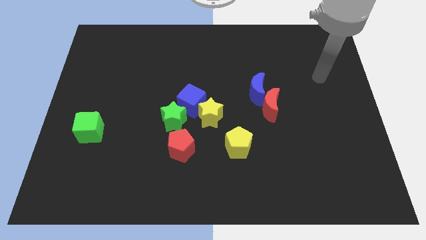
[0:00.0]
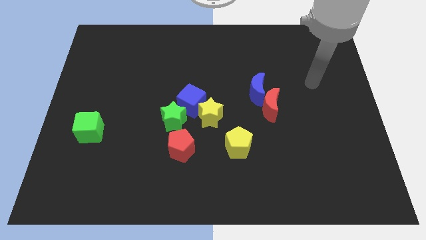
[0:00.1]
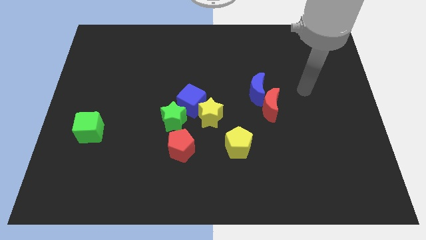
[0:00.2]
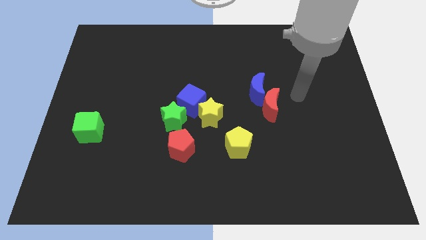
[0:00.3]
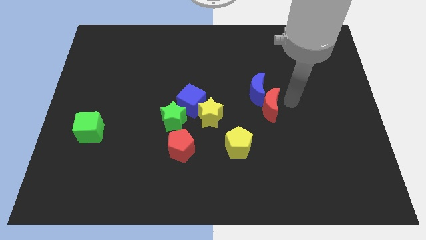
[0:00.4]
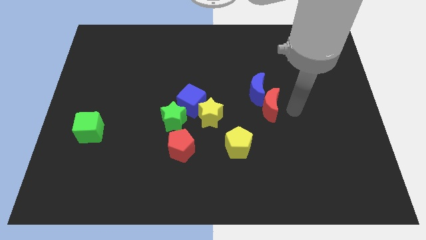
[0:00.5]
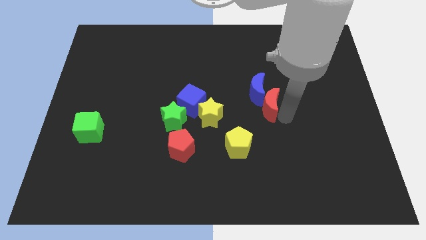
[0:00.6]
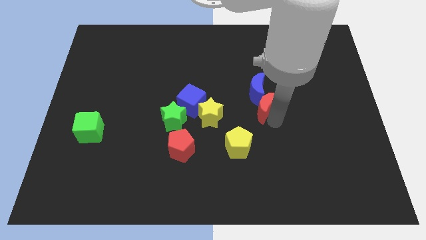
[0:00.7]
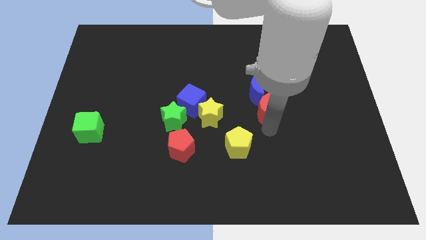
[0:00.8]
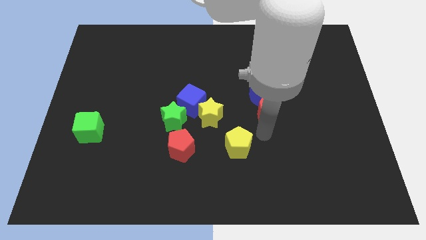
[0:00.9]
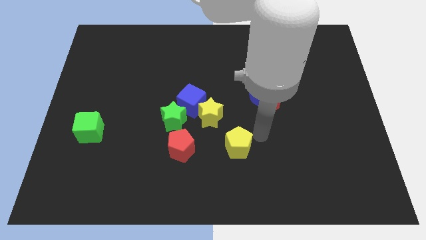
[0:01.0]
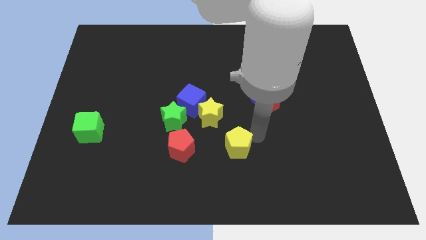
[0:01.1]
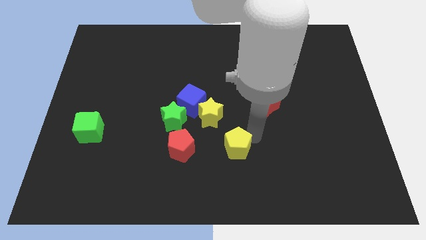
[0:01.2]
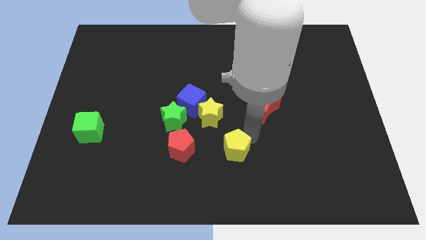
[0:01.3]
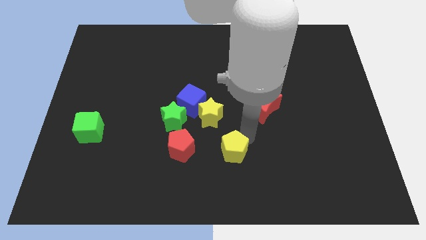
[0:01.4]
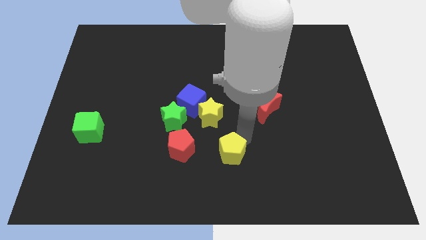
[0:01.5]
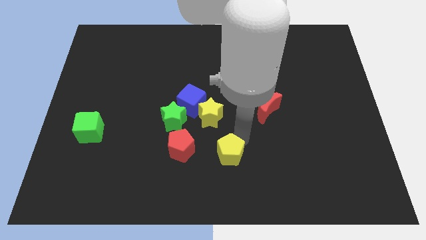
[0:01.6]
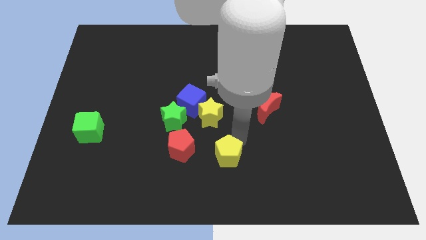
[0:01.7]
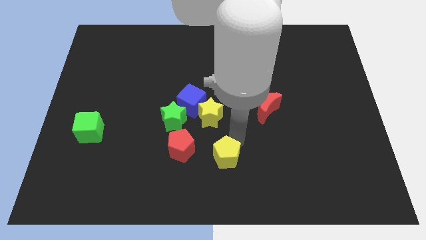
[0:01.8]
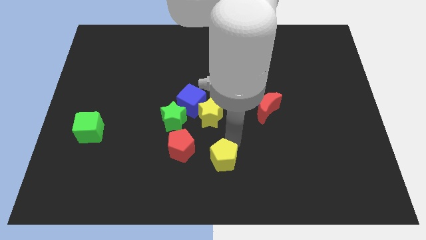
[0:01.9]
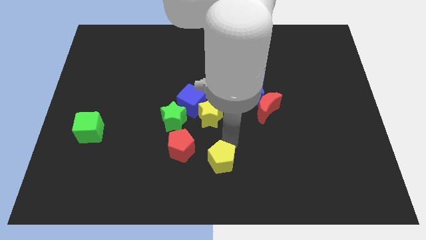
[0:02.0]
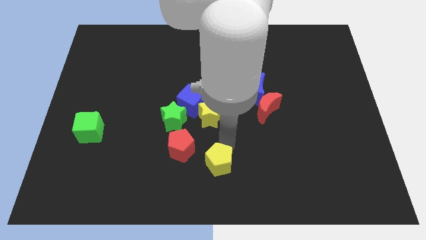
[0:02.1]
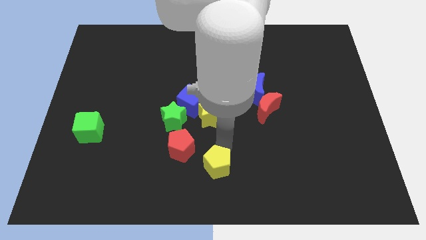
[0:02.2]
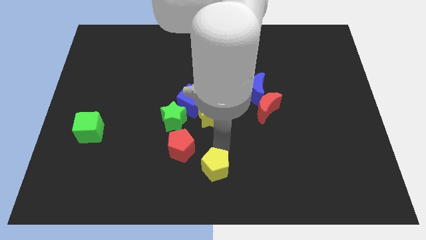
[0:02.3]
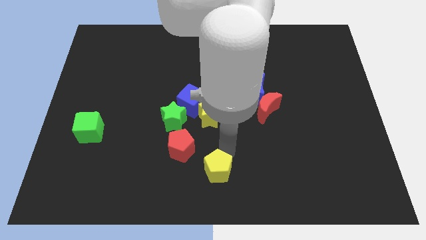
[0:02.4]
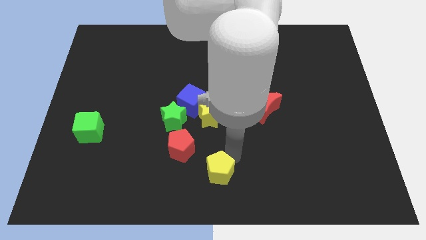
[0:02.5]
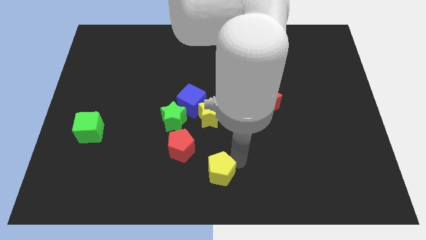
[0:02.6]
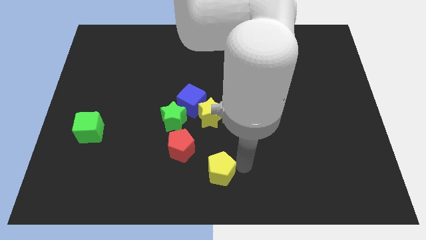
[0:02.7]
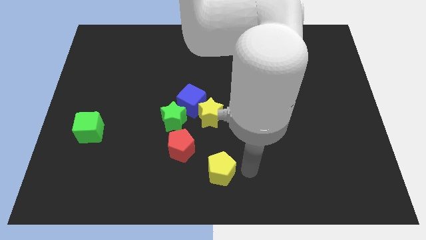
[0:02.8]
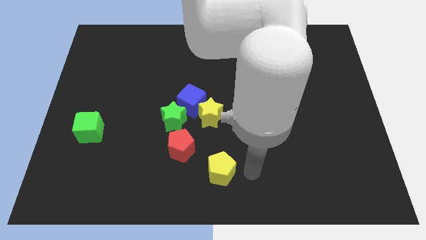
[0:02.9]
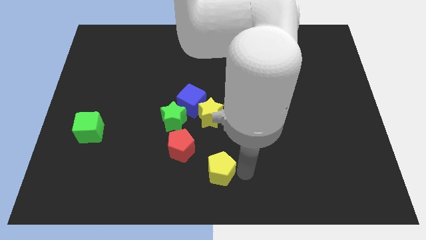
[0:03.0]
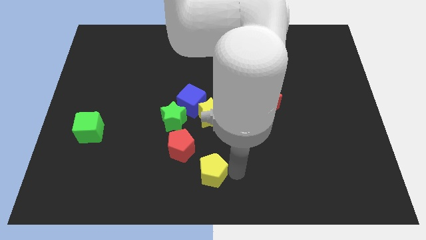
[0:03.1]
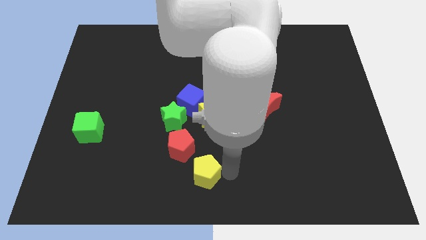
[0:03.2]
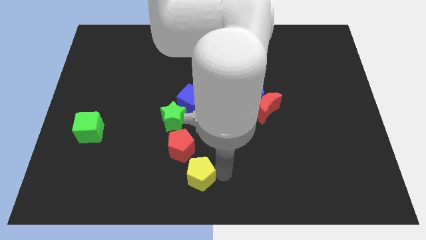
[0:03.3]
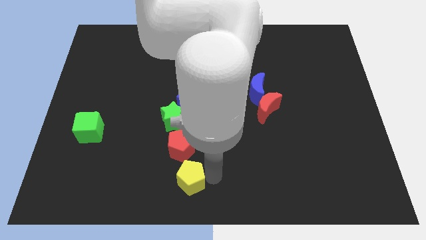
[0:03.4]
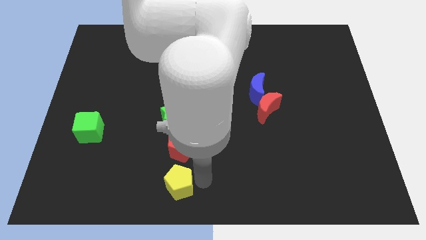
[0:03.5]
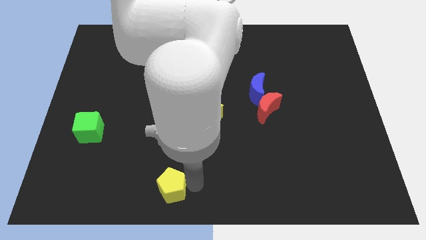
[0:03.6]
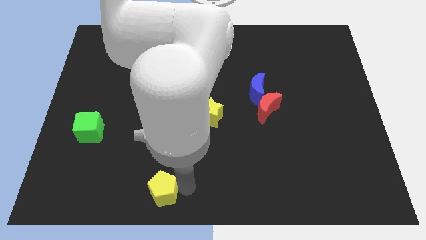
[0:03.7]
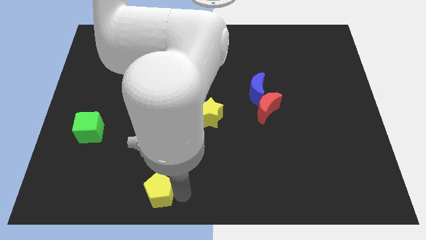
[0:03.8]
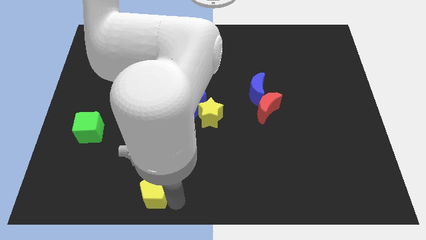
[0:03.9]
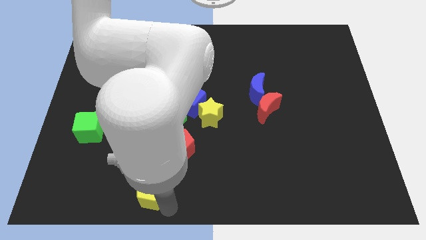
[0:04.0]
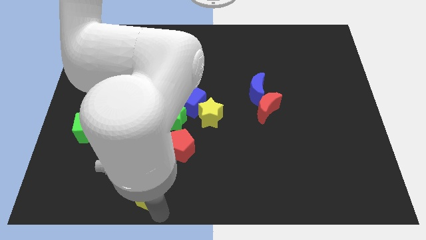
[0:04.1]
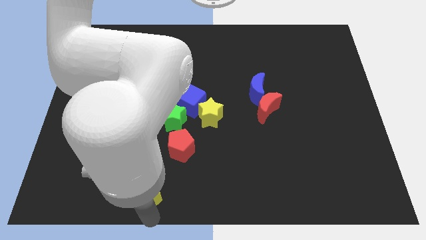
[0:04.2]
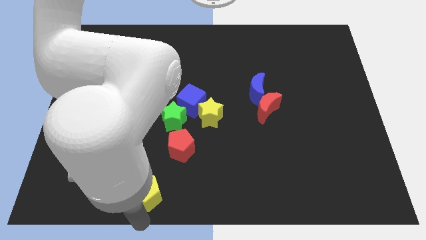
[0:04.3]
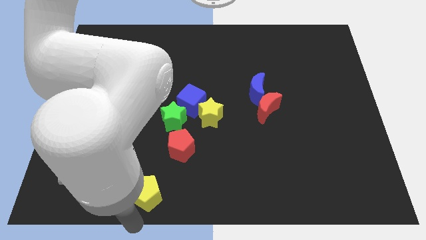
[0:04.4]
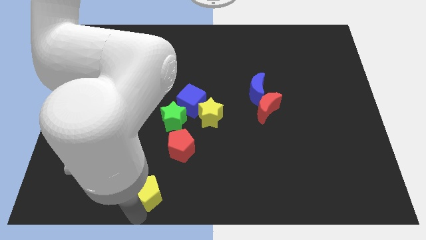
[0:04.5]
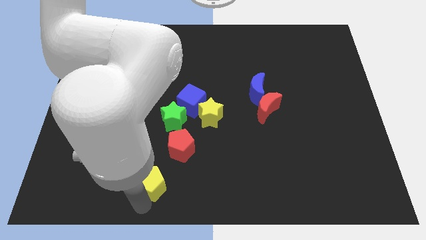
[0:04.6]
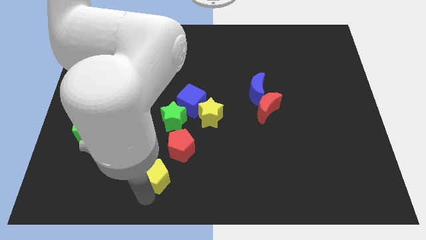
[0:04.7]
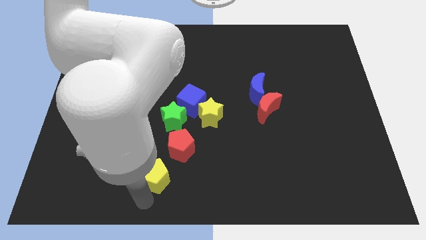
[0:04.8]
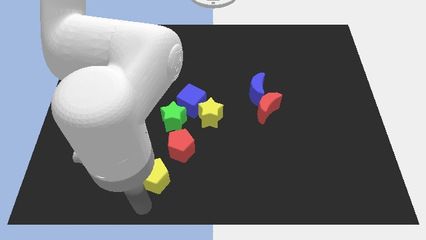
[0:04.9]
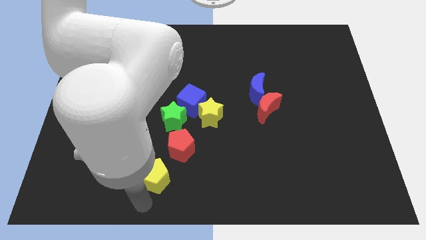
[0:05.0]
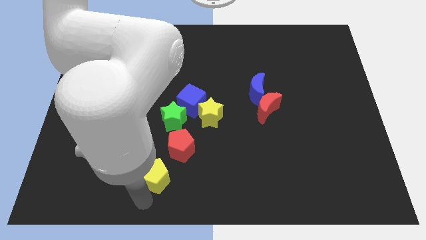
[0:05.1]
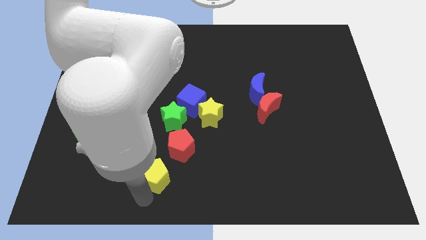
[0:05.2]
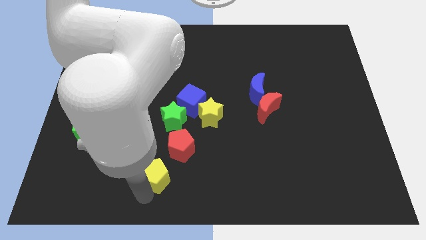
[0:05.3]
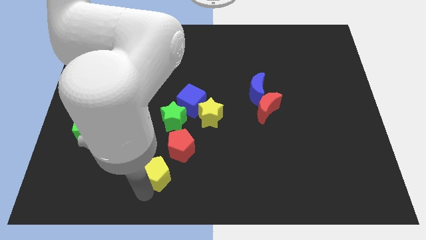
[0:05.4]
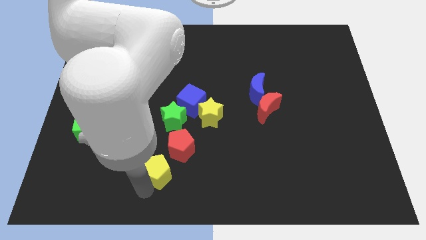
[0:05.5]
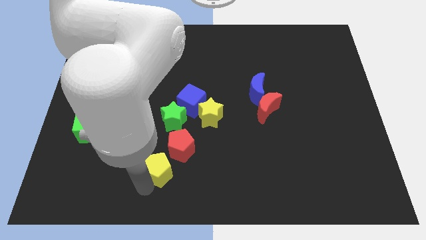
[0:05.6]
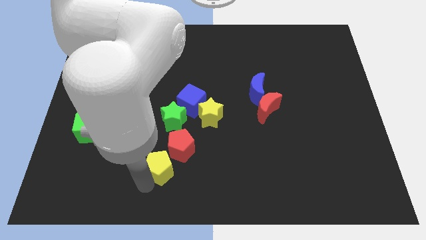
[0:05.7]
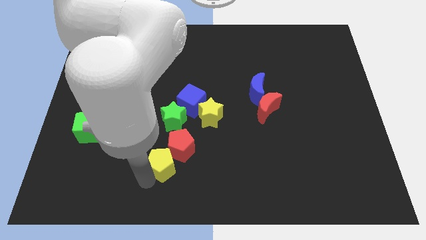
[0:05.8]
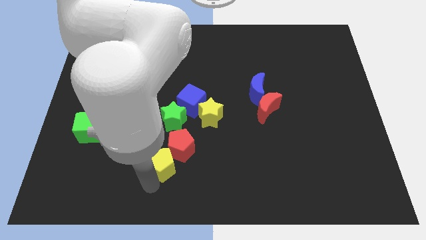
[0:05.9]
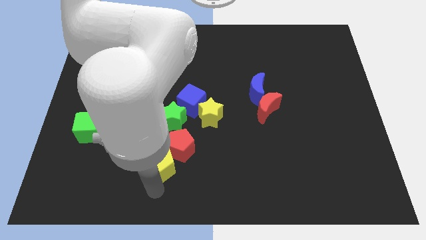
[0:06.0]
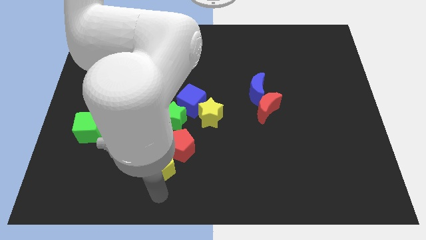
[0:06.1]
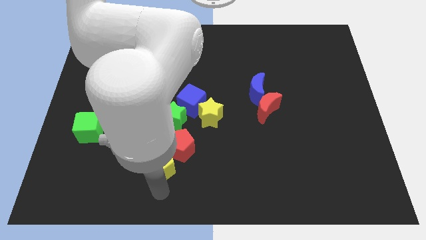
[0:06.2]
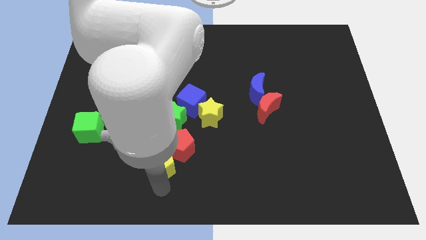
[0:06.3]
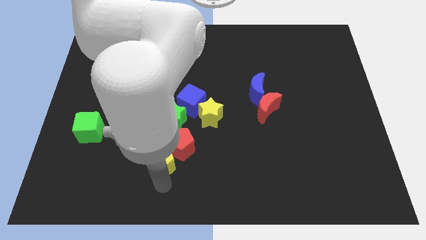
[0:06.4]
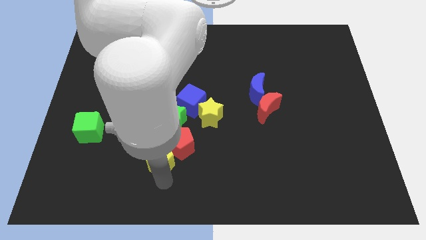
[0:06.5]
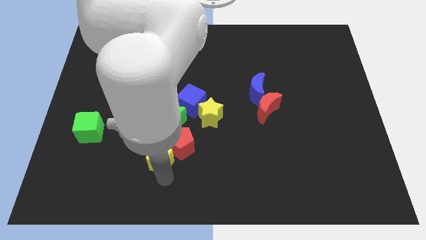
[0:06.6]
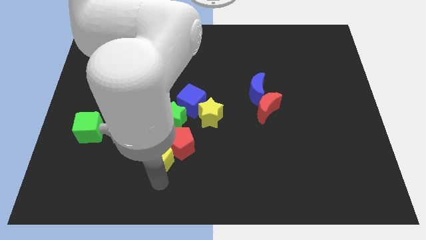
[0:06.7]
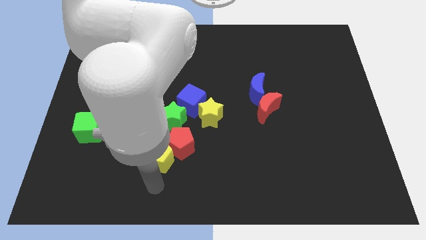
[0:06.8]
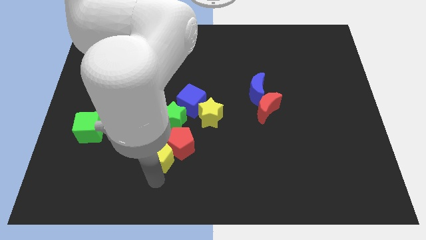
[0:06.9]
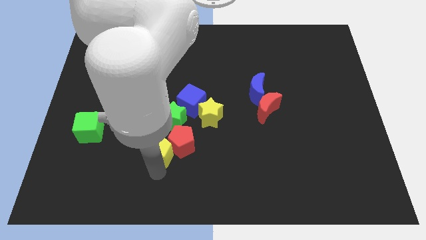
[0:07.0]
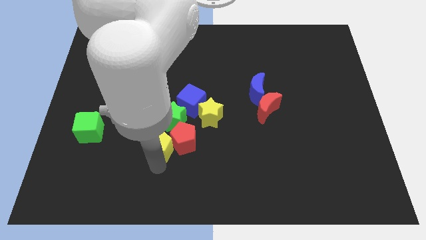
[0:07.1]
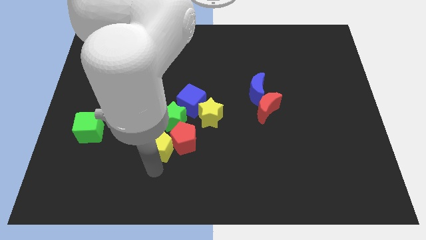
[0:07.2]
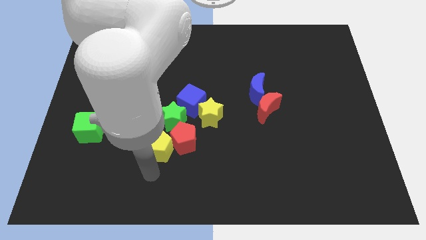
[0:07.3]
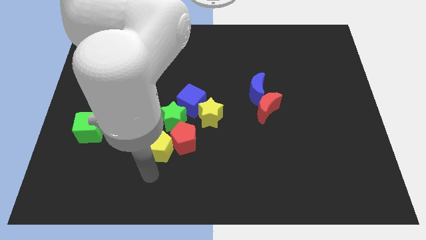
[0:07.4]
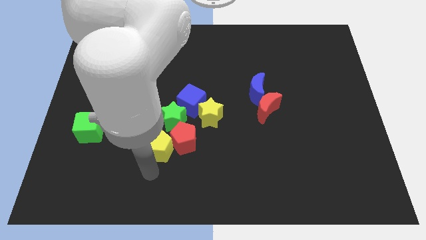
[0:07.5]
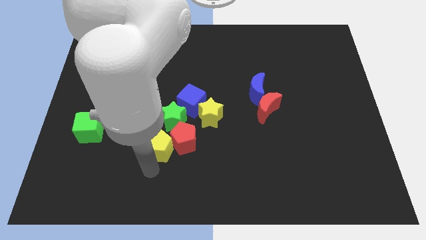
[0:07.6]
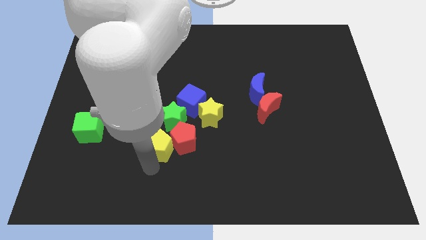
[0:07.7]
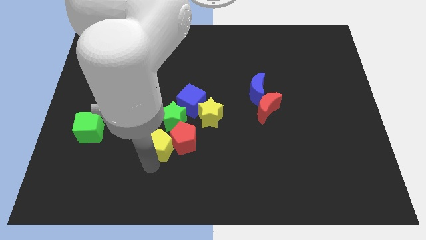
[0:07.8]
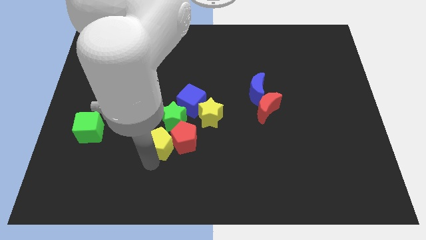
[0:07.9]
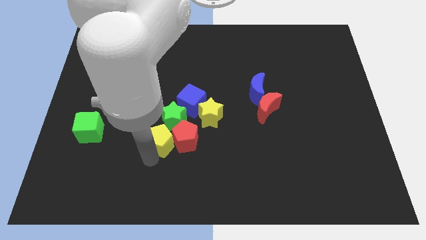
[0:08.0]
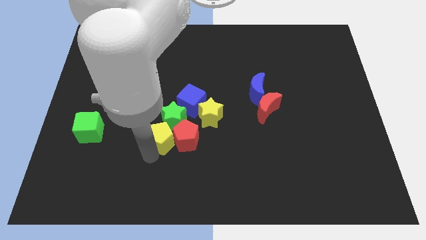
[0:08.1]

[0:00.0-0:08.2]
push the yellow pentagon close to the green star

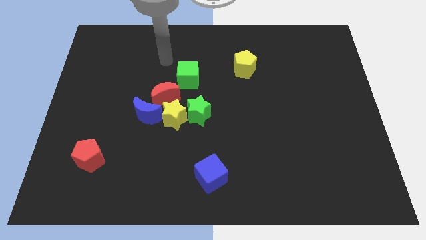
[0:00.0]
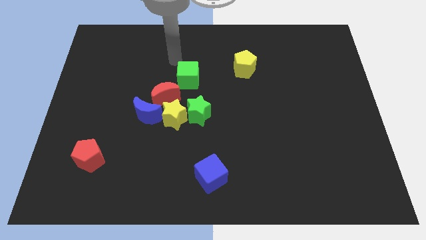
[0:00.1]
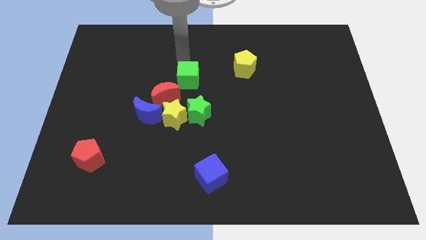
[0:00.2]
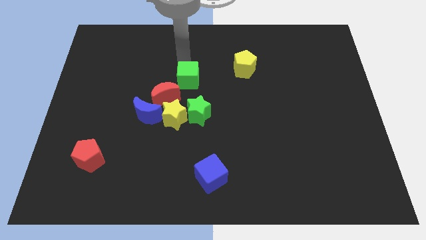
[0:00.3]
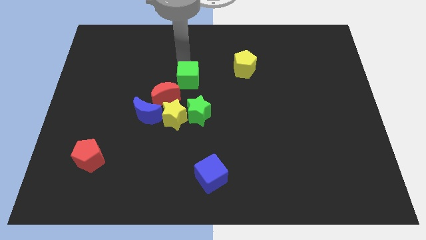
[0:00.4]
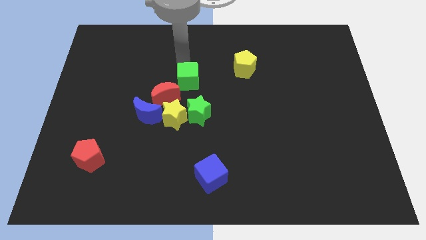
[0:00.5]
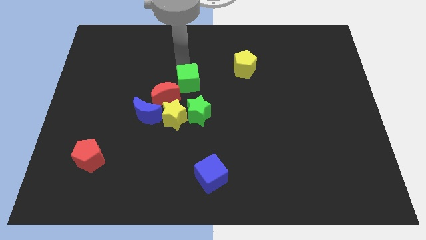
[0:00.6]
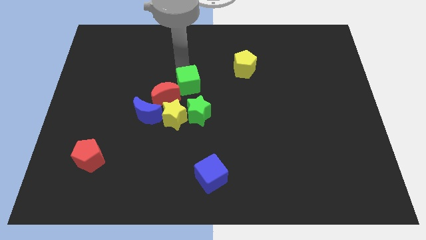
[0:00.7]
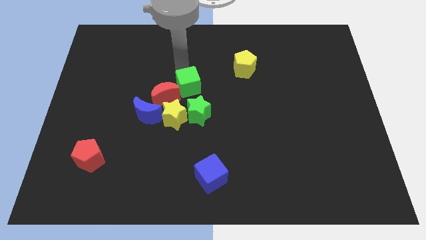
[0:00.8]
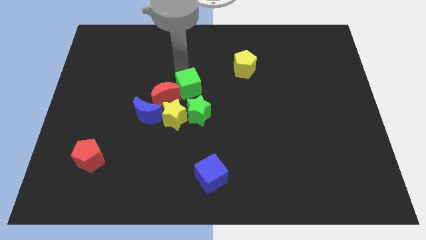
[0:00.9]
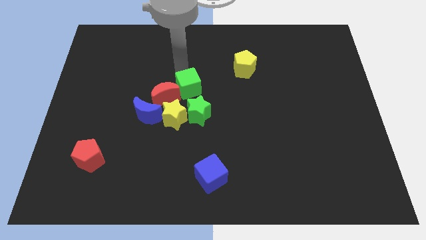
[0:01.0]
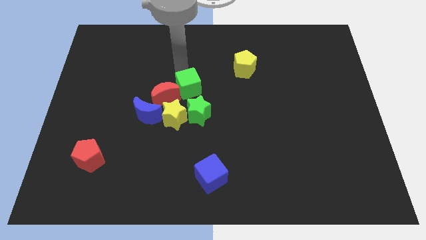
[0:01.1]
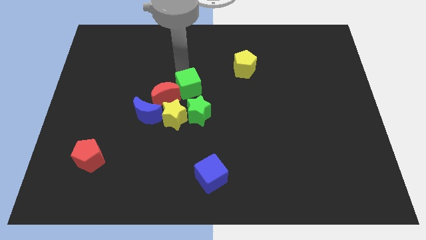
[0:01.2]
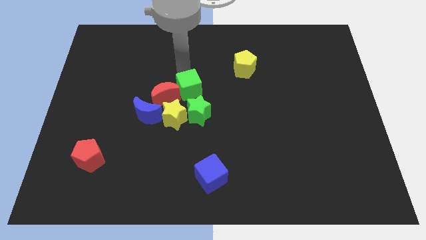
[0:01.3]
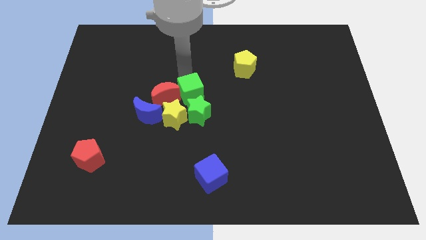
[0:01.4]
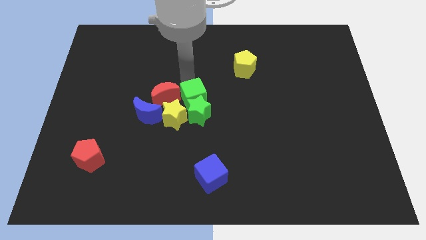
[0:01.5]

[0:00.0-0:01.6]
push the green cube next to the green star
